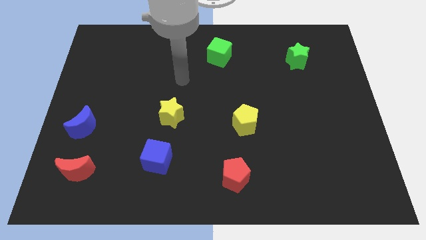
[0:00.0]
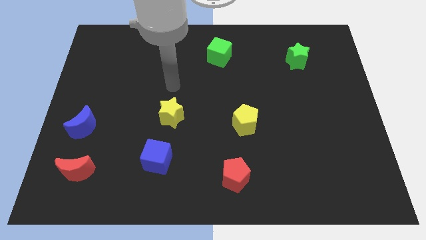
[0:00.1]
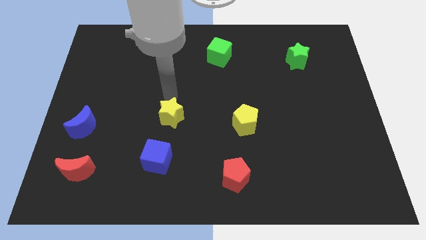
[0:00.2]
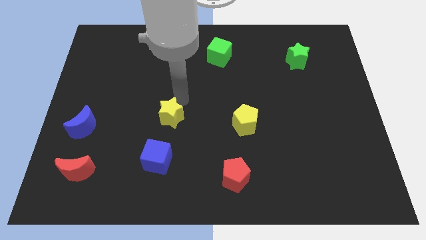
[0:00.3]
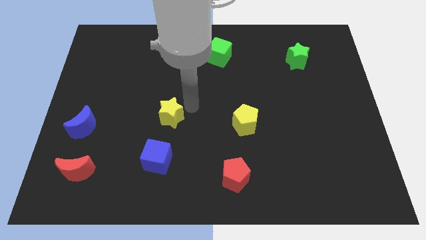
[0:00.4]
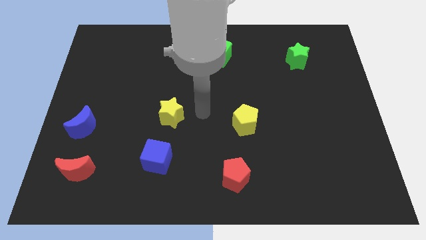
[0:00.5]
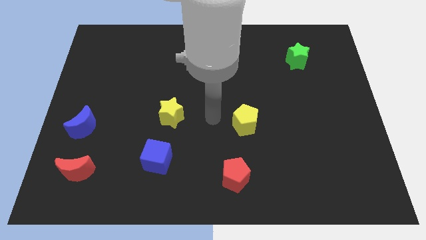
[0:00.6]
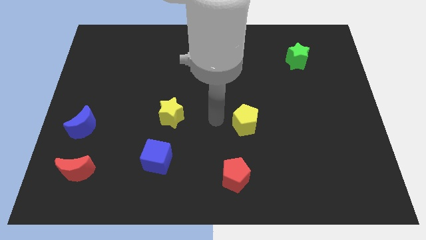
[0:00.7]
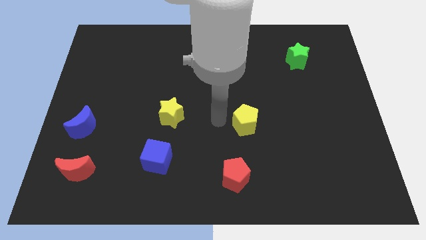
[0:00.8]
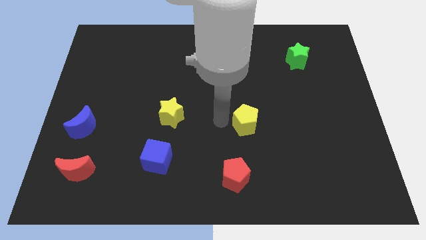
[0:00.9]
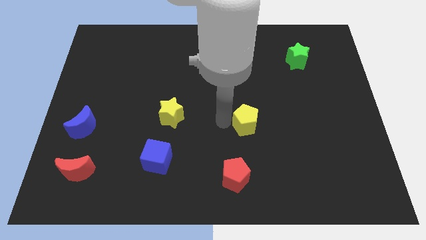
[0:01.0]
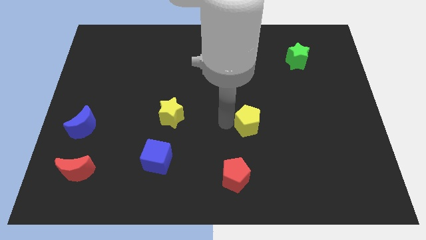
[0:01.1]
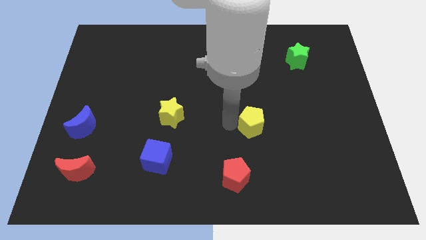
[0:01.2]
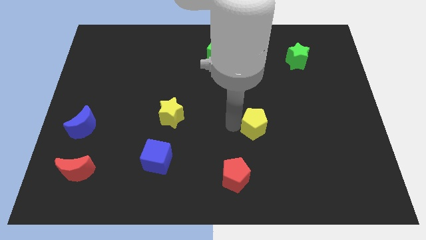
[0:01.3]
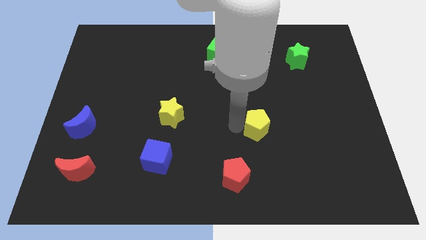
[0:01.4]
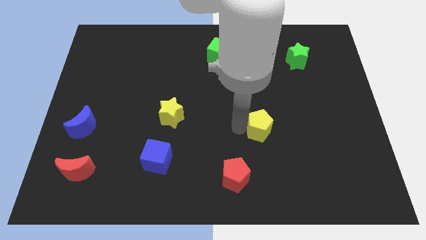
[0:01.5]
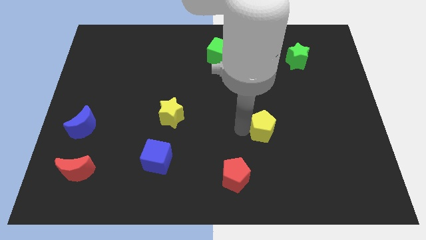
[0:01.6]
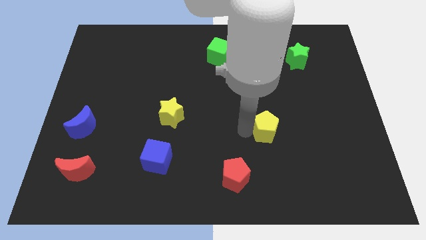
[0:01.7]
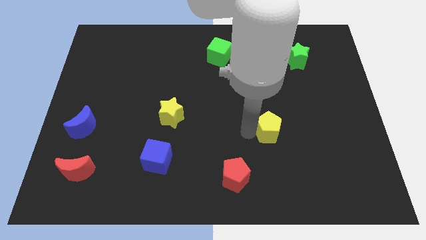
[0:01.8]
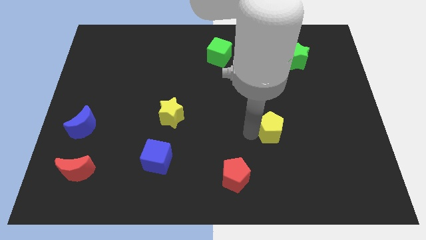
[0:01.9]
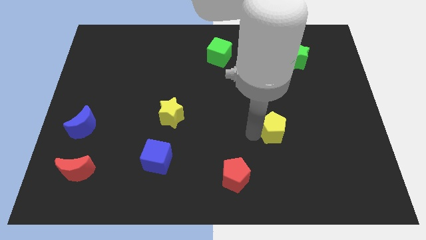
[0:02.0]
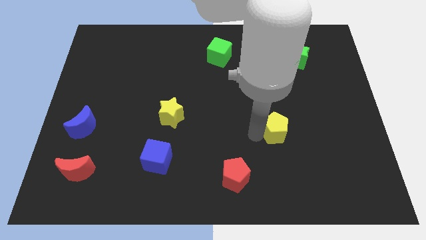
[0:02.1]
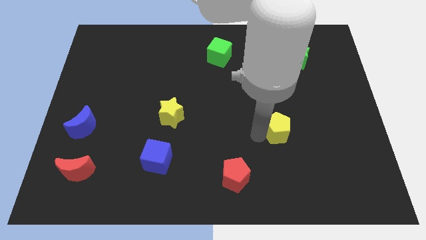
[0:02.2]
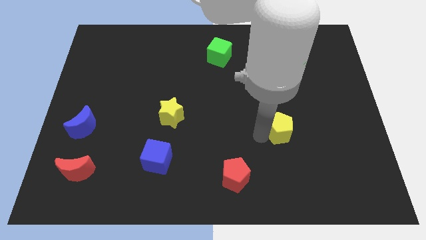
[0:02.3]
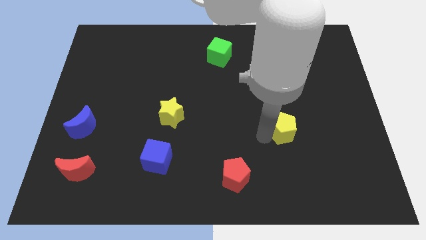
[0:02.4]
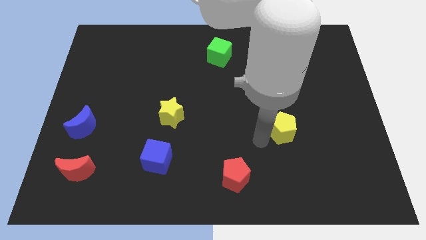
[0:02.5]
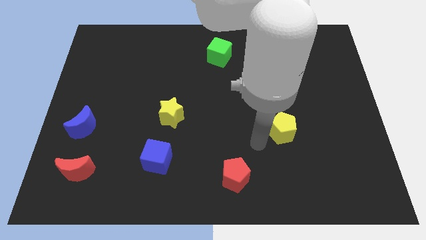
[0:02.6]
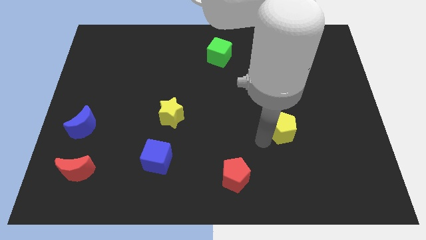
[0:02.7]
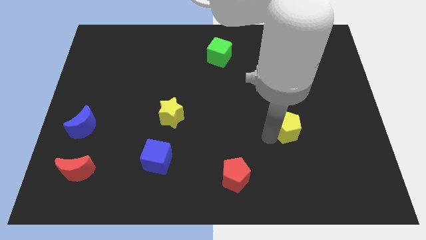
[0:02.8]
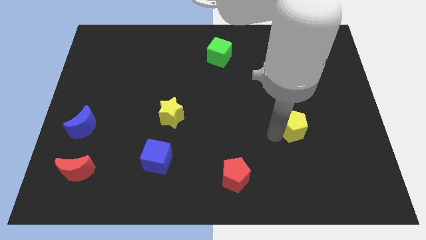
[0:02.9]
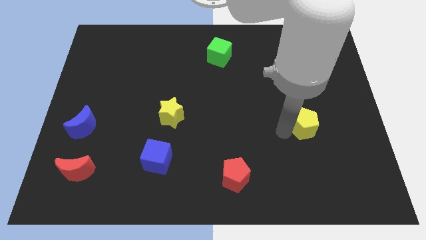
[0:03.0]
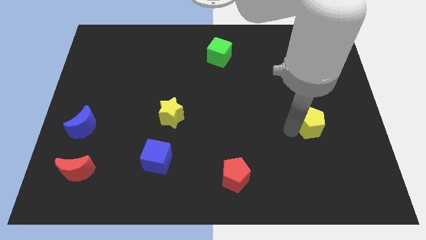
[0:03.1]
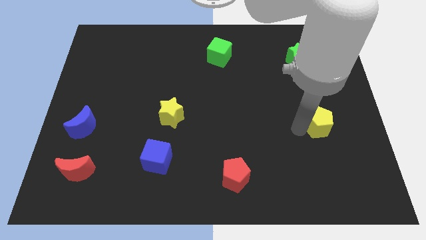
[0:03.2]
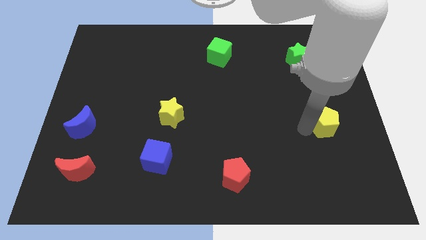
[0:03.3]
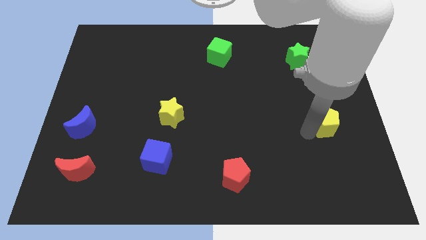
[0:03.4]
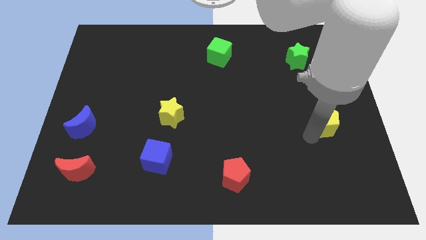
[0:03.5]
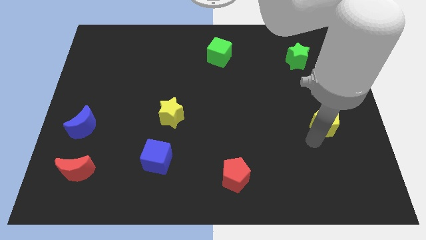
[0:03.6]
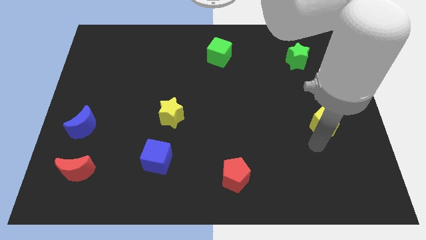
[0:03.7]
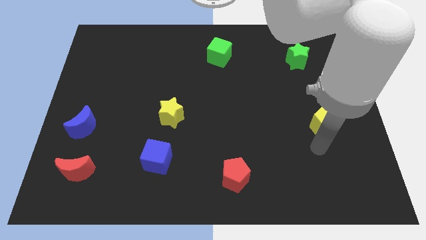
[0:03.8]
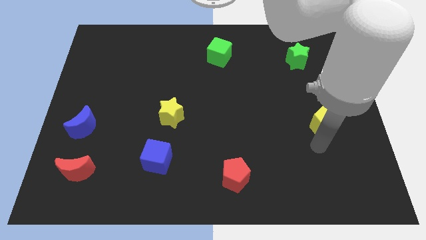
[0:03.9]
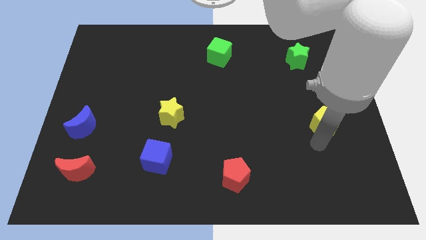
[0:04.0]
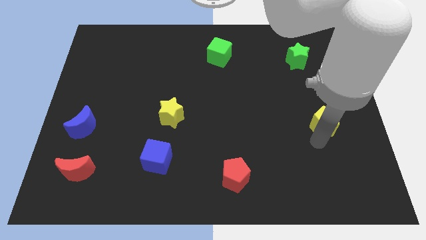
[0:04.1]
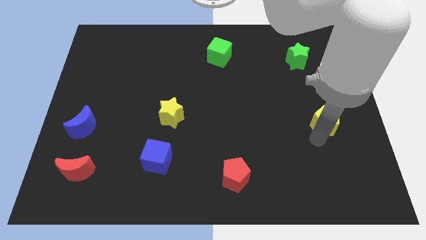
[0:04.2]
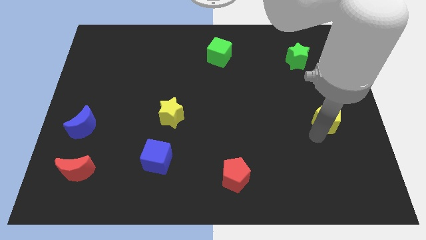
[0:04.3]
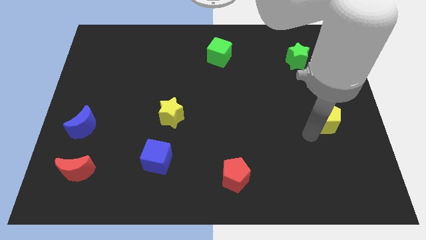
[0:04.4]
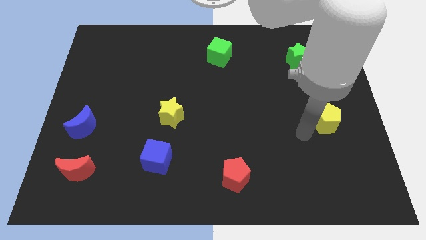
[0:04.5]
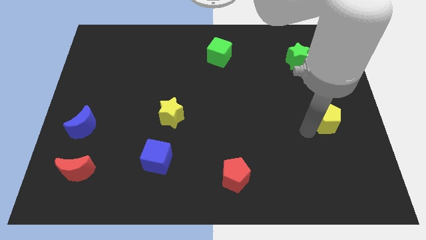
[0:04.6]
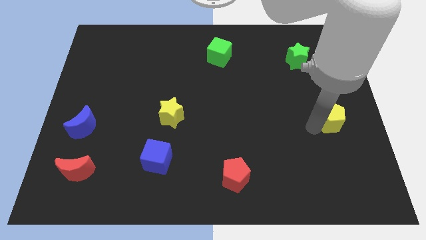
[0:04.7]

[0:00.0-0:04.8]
push the yellow pentagon to the right side

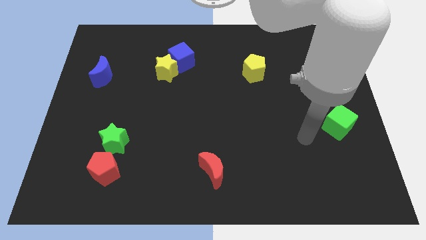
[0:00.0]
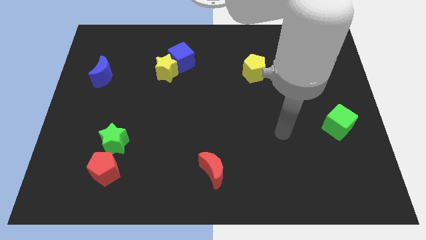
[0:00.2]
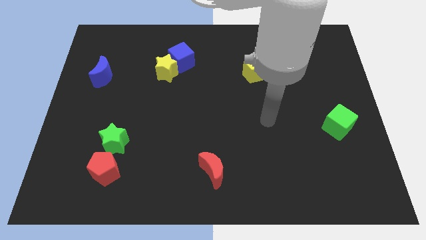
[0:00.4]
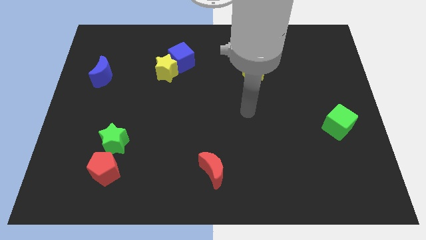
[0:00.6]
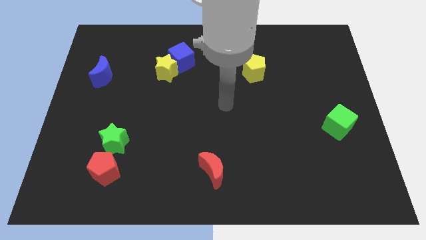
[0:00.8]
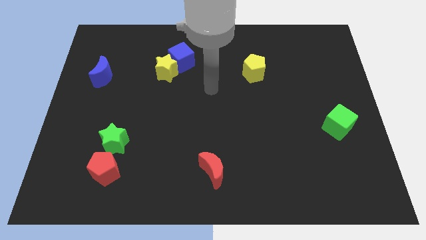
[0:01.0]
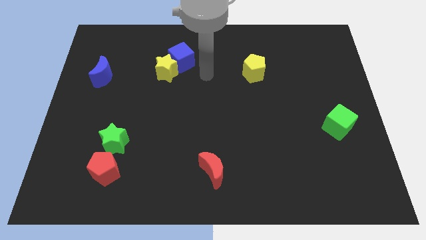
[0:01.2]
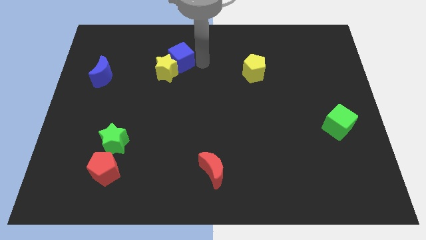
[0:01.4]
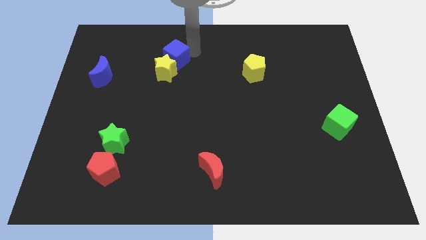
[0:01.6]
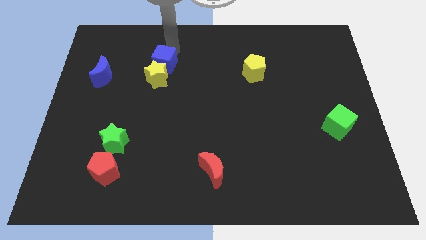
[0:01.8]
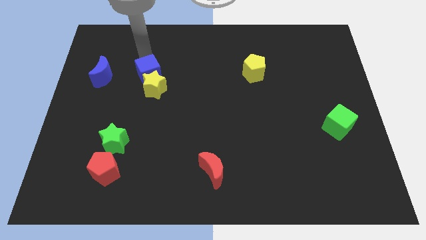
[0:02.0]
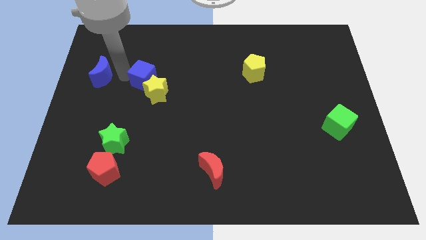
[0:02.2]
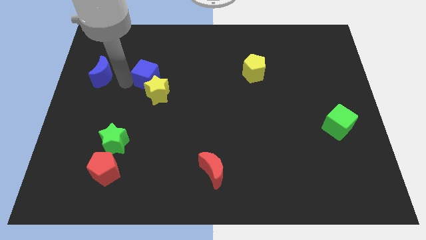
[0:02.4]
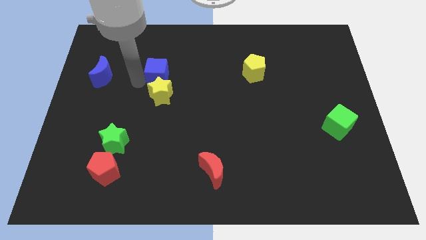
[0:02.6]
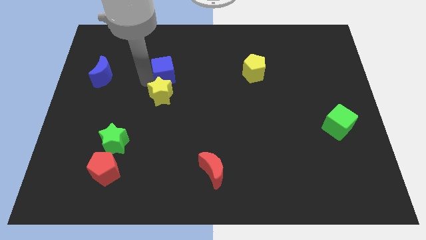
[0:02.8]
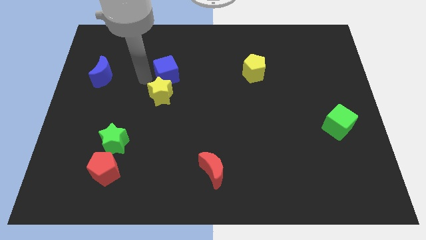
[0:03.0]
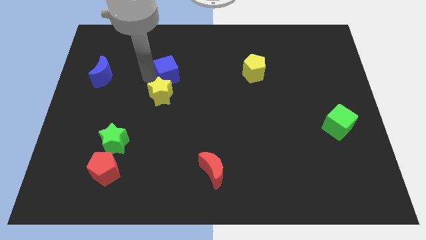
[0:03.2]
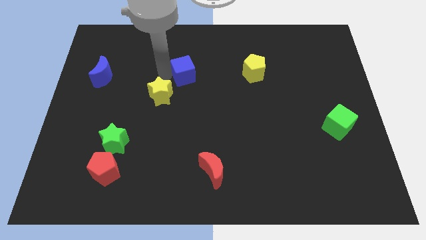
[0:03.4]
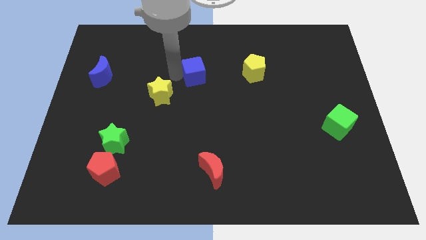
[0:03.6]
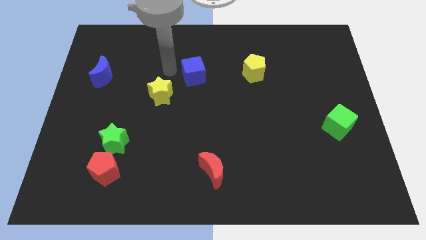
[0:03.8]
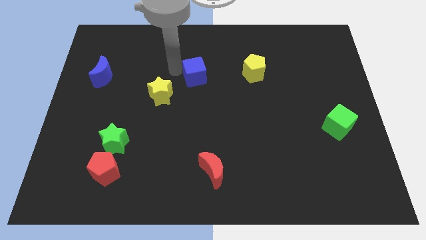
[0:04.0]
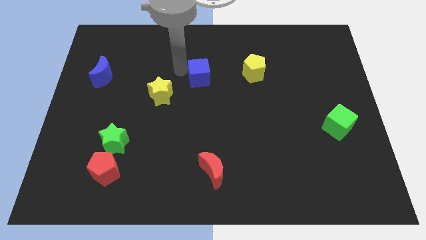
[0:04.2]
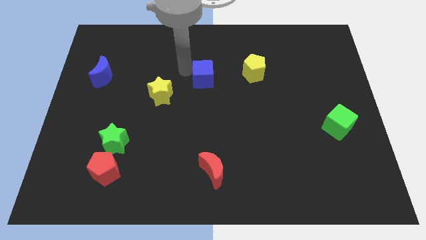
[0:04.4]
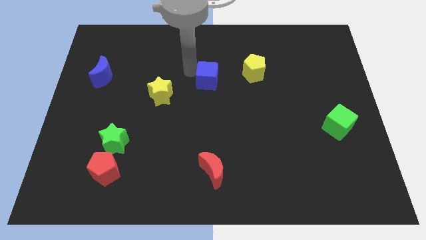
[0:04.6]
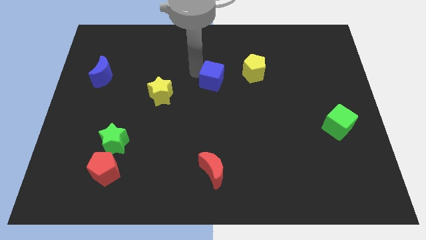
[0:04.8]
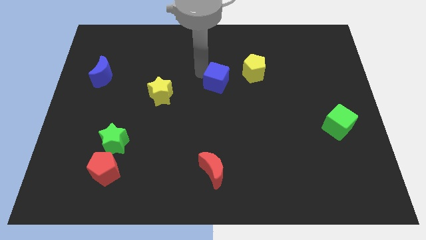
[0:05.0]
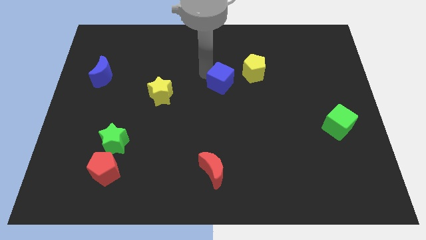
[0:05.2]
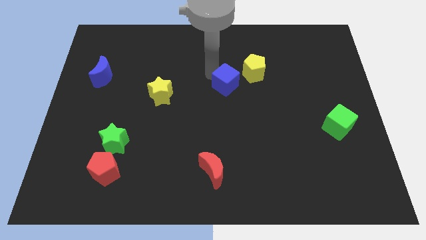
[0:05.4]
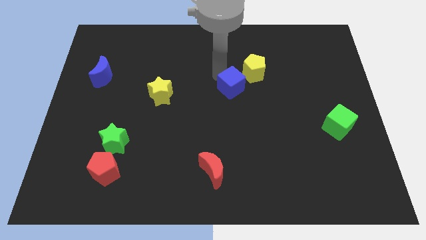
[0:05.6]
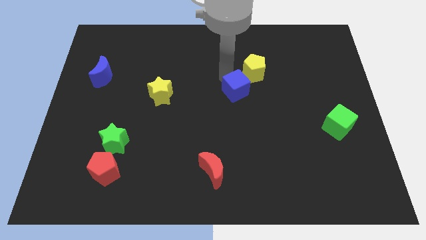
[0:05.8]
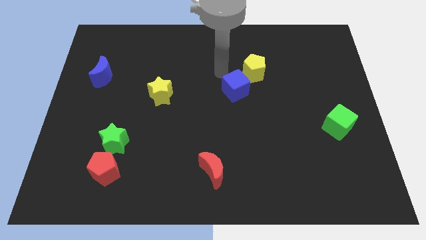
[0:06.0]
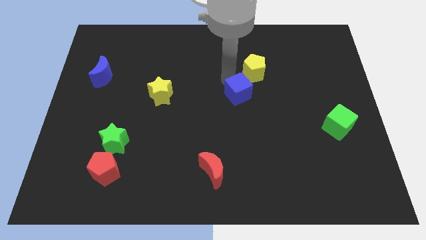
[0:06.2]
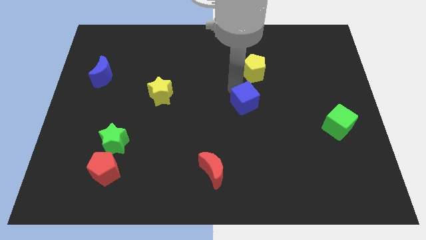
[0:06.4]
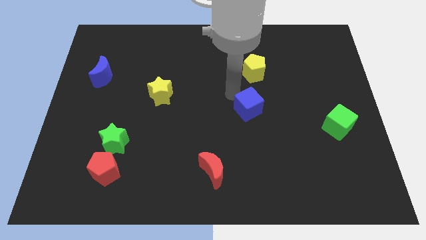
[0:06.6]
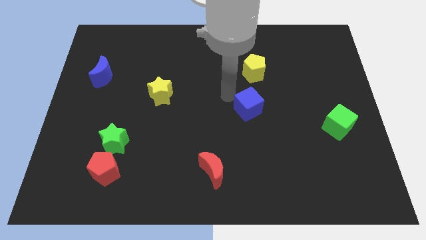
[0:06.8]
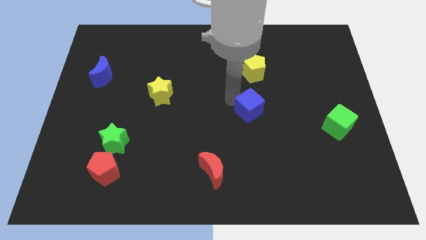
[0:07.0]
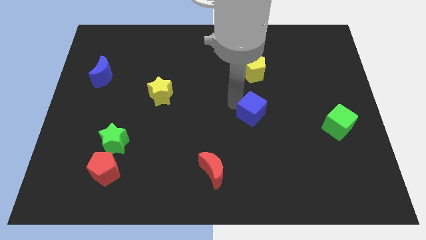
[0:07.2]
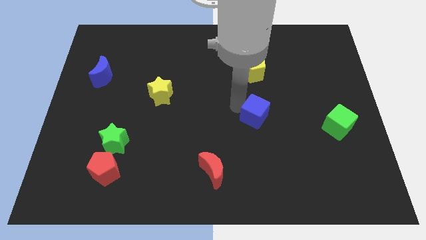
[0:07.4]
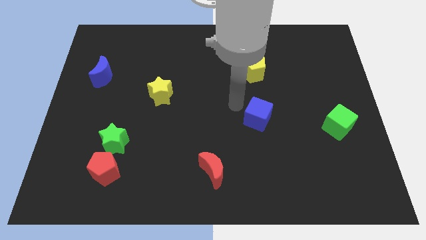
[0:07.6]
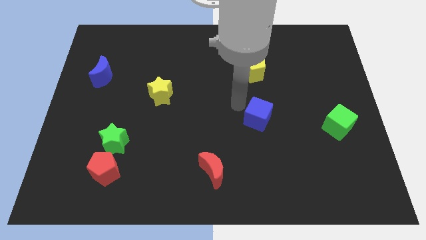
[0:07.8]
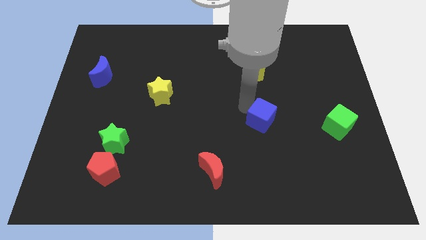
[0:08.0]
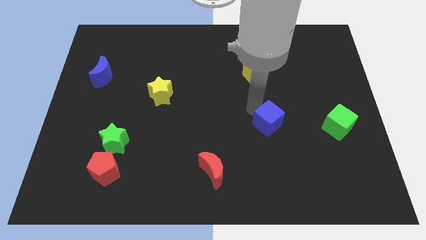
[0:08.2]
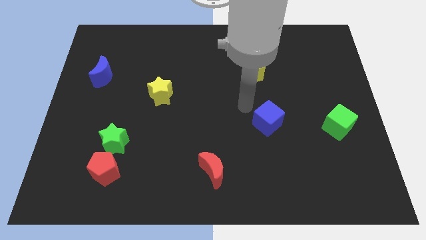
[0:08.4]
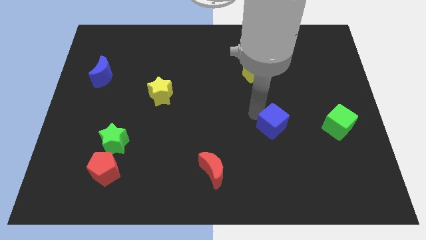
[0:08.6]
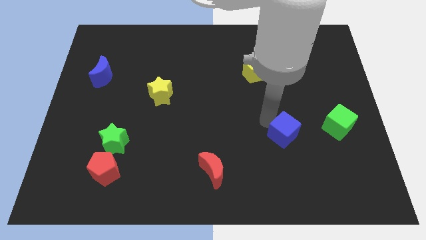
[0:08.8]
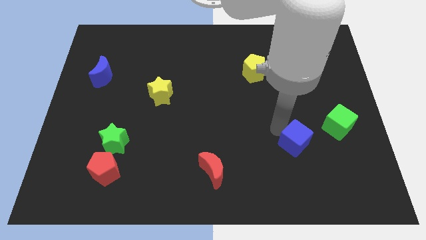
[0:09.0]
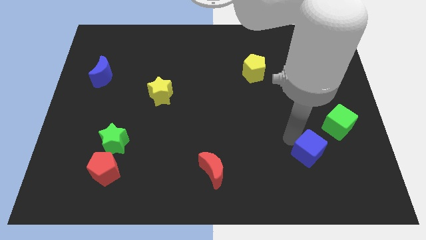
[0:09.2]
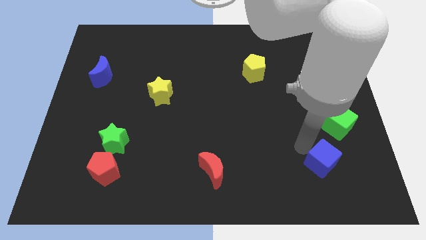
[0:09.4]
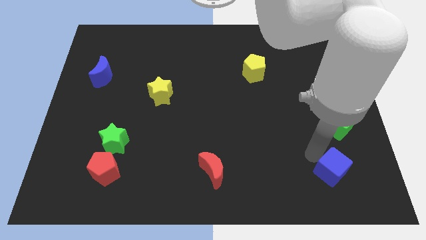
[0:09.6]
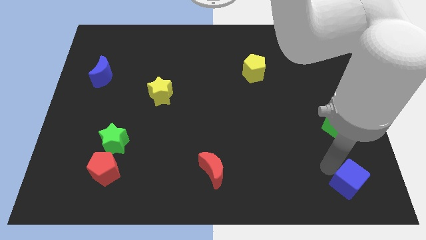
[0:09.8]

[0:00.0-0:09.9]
slide the blue cube to the bottom right corner
